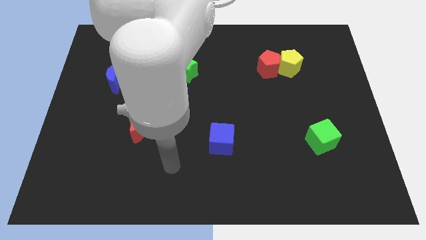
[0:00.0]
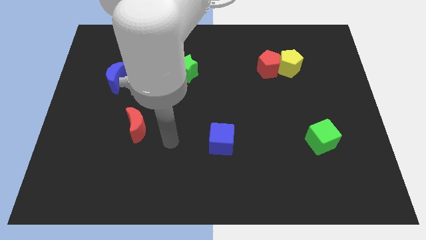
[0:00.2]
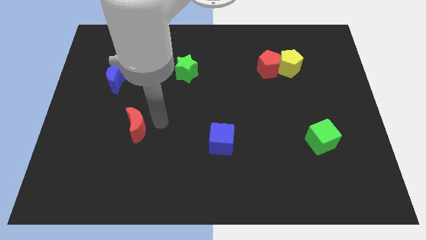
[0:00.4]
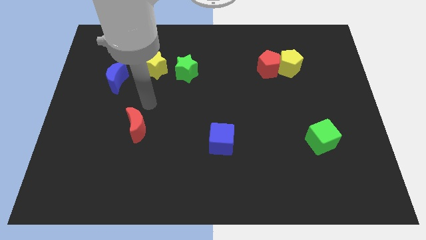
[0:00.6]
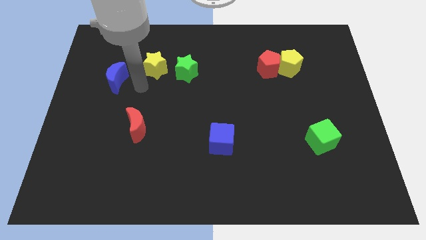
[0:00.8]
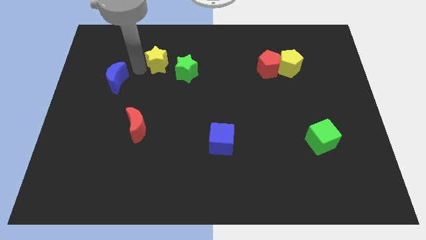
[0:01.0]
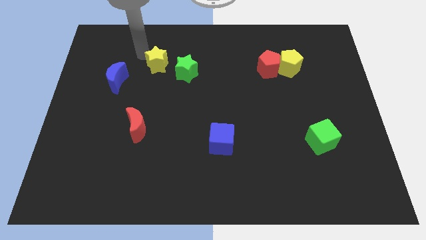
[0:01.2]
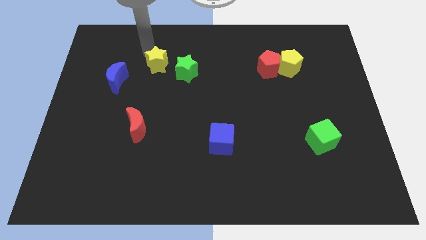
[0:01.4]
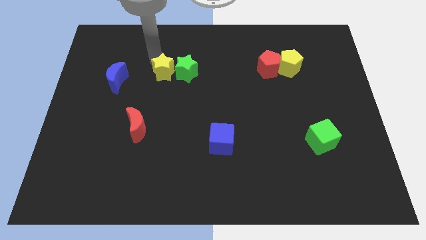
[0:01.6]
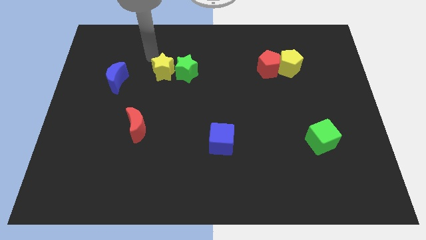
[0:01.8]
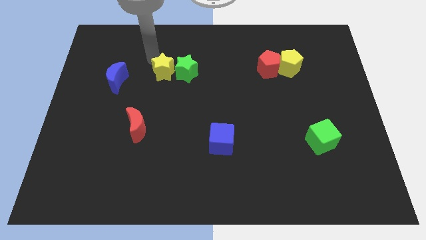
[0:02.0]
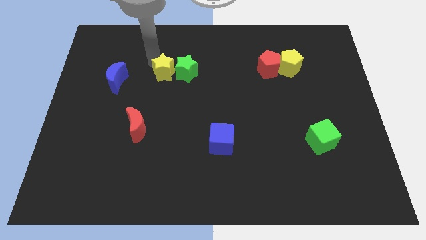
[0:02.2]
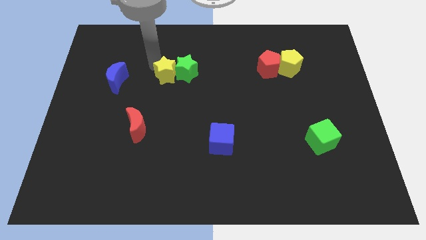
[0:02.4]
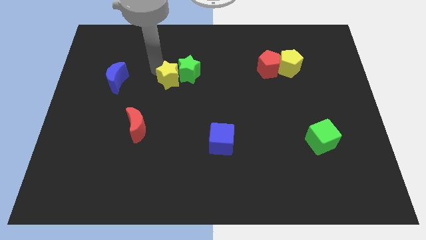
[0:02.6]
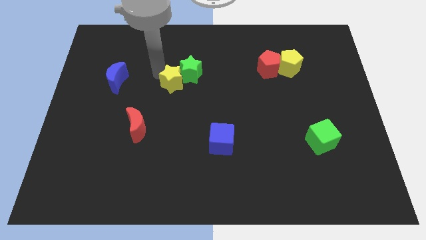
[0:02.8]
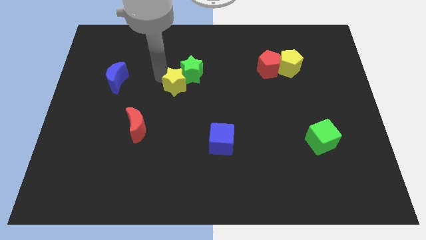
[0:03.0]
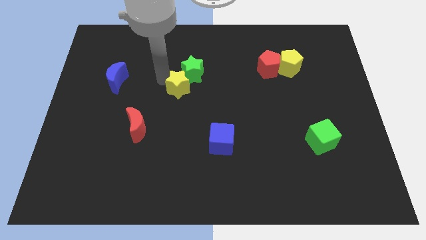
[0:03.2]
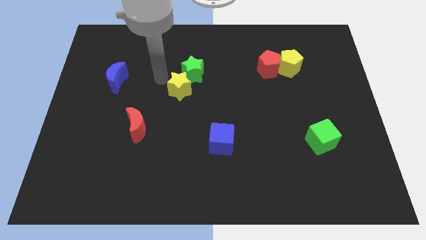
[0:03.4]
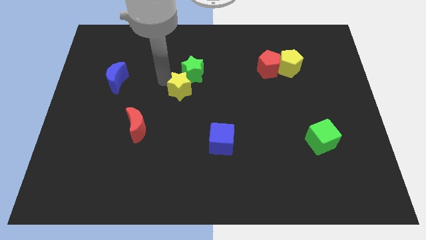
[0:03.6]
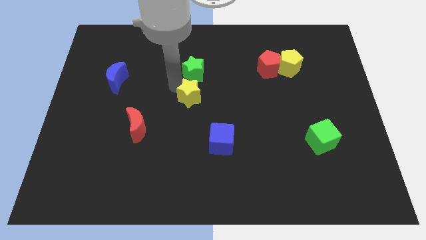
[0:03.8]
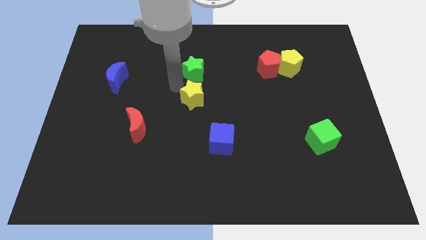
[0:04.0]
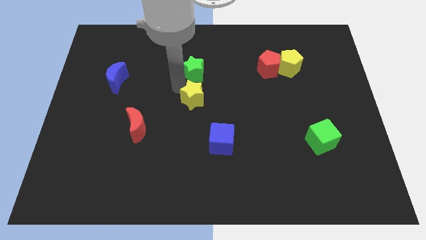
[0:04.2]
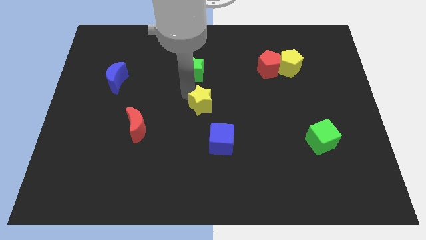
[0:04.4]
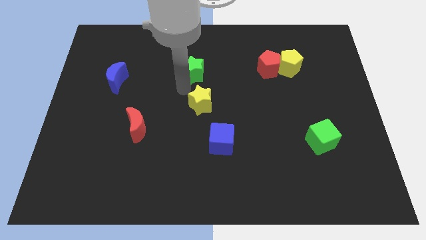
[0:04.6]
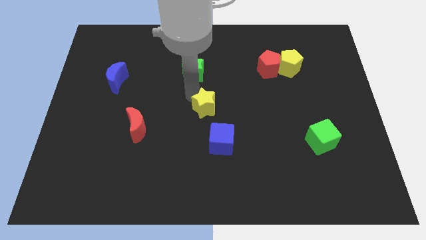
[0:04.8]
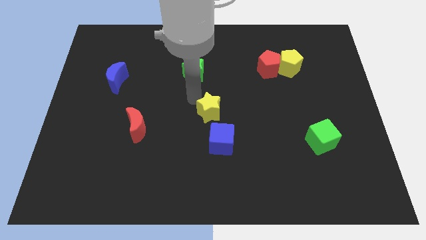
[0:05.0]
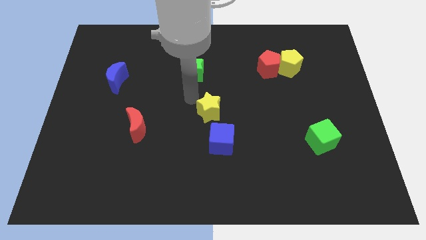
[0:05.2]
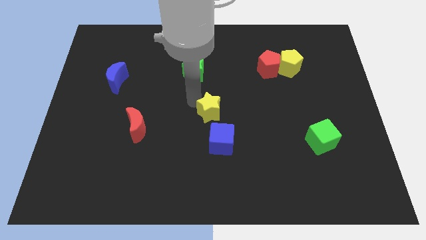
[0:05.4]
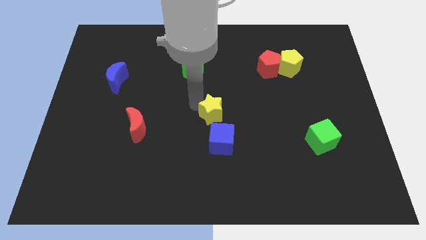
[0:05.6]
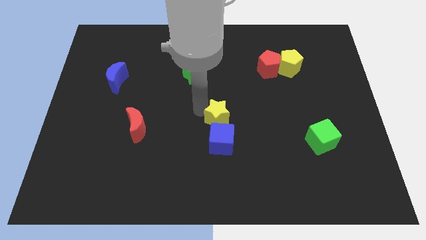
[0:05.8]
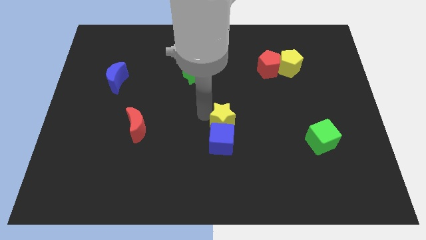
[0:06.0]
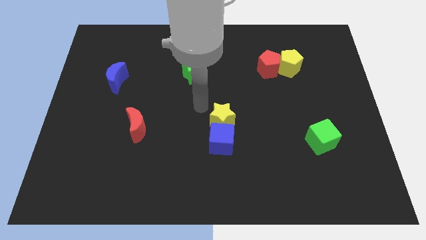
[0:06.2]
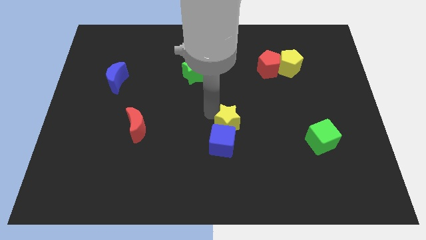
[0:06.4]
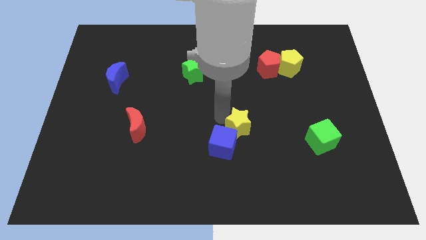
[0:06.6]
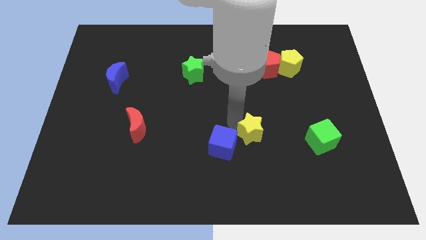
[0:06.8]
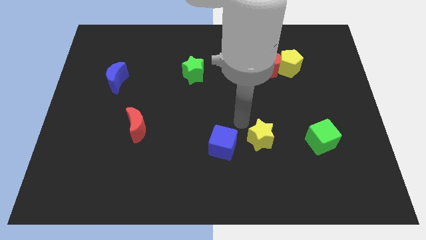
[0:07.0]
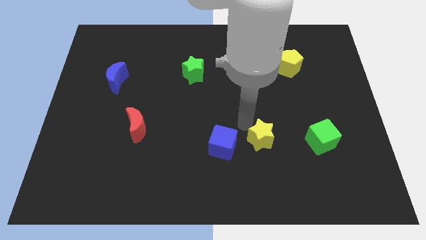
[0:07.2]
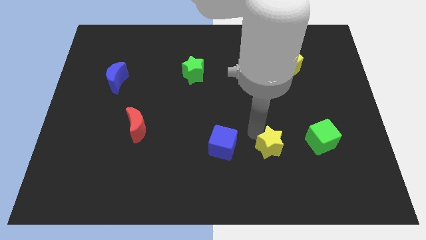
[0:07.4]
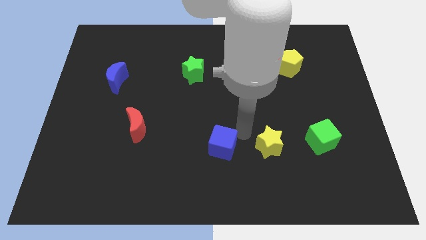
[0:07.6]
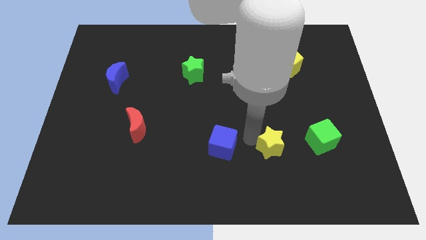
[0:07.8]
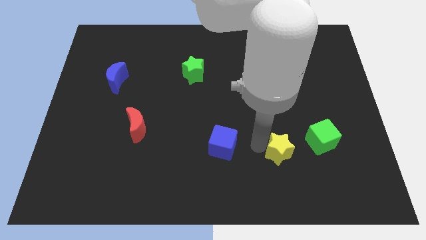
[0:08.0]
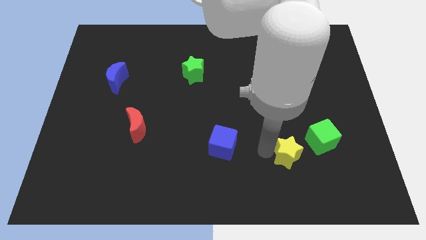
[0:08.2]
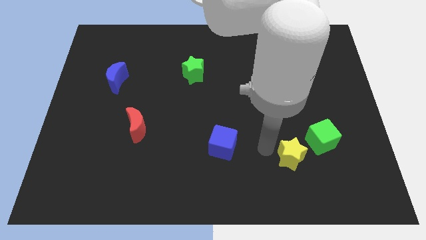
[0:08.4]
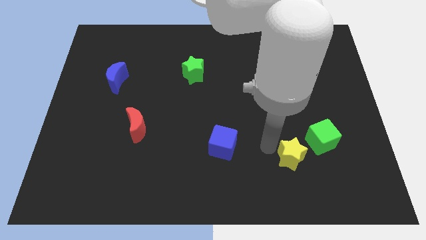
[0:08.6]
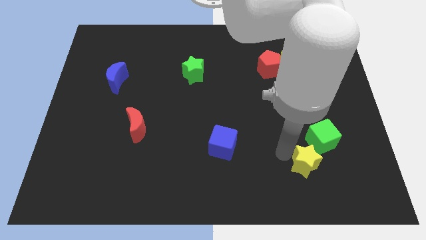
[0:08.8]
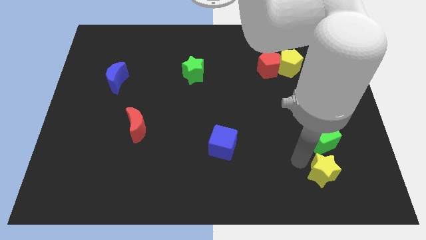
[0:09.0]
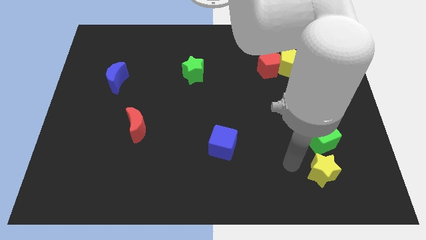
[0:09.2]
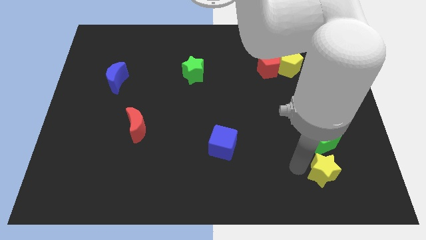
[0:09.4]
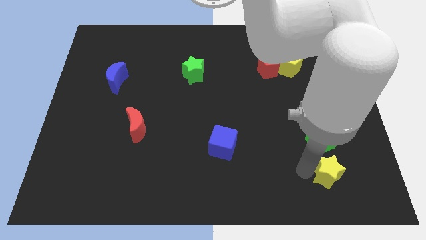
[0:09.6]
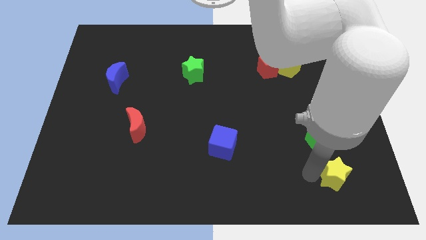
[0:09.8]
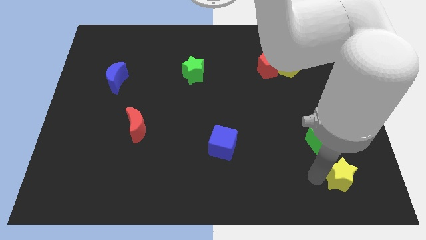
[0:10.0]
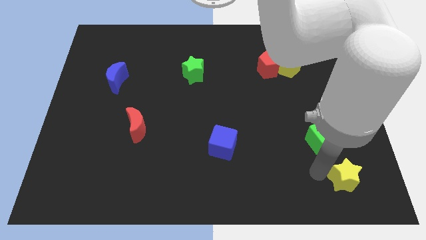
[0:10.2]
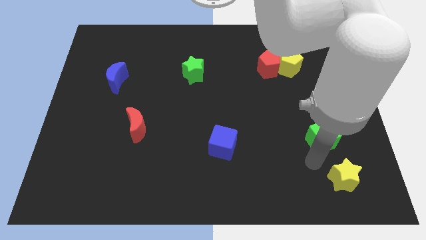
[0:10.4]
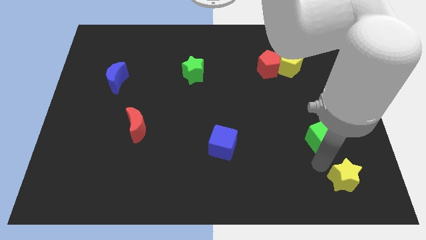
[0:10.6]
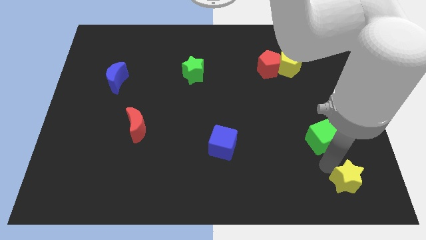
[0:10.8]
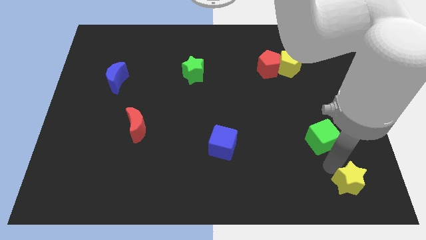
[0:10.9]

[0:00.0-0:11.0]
slide the yellow star to the bottom right corner

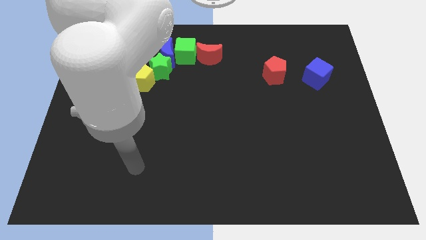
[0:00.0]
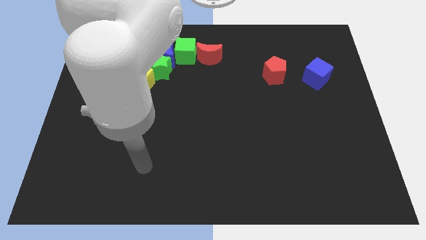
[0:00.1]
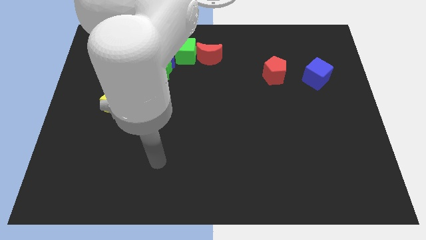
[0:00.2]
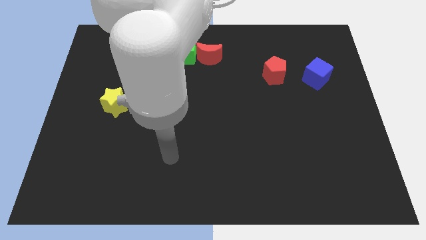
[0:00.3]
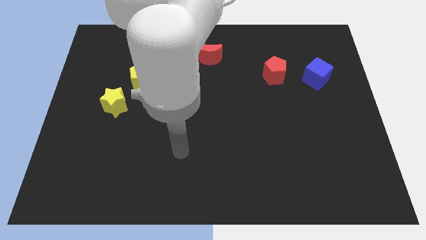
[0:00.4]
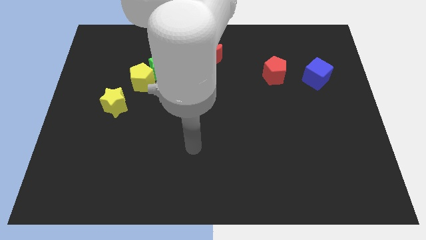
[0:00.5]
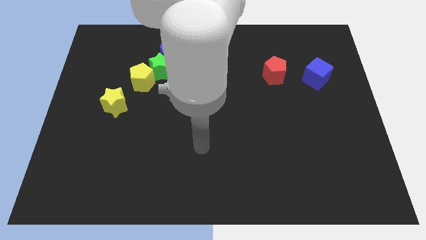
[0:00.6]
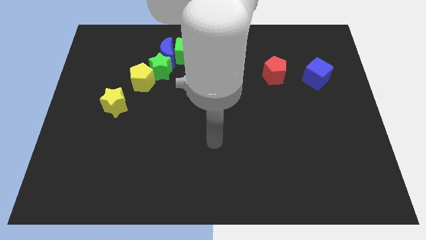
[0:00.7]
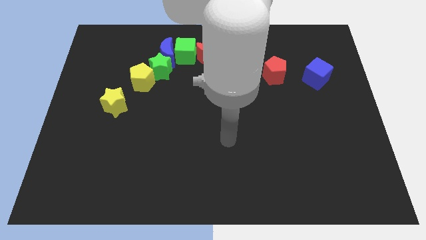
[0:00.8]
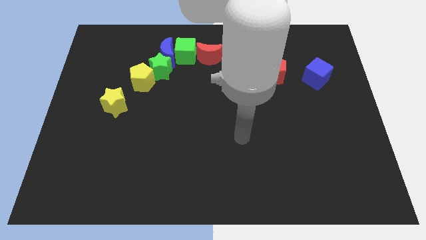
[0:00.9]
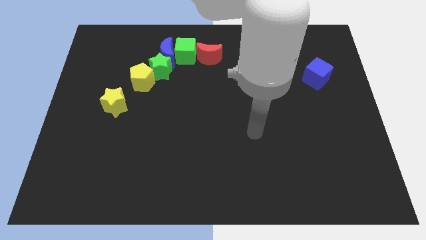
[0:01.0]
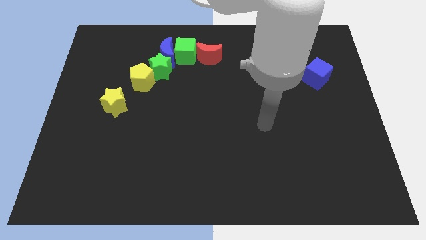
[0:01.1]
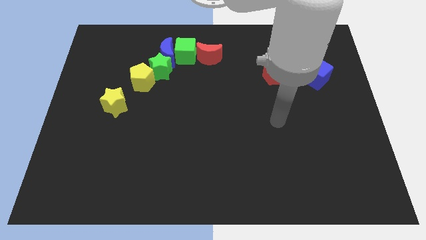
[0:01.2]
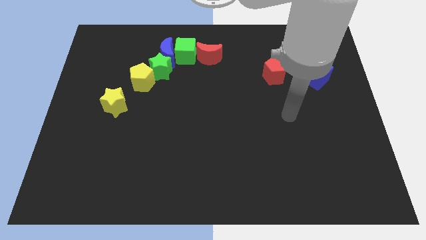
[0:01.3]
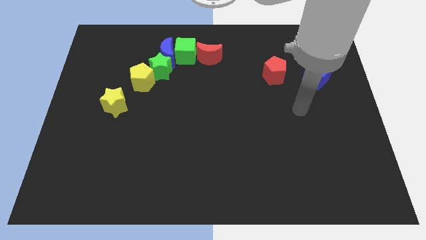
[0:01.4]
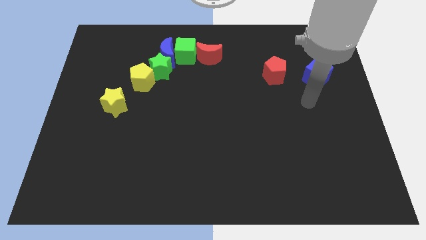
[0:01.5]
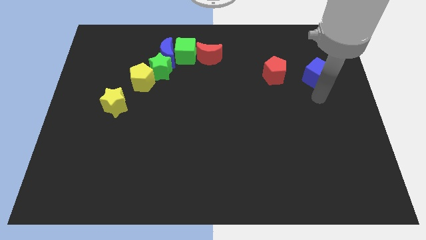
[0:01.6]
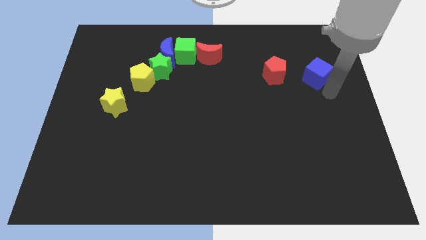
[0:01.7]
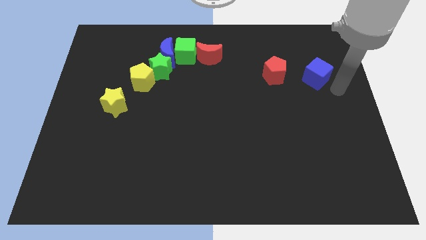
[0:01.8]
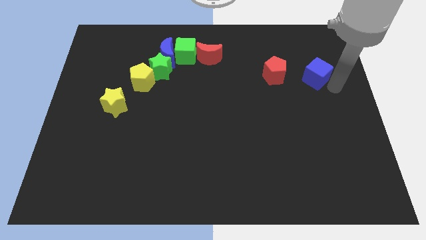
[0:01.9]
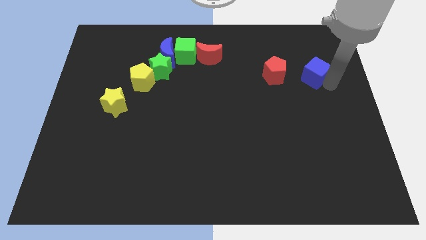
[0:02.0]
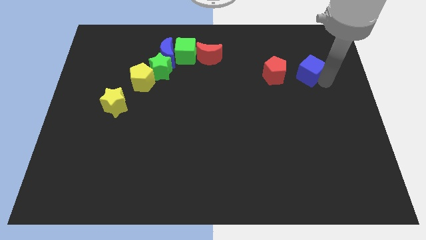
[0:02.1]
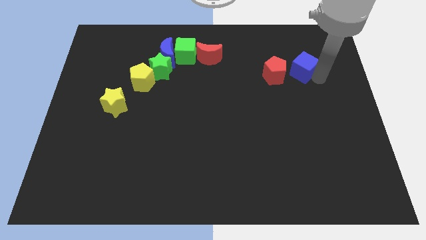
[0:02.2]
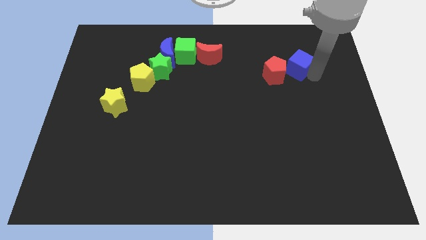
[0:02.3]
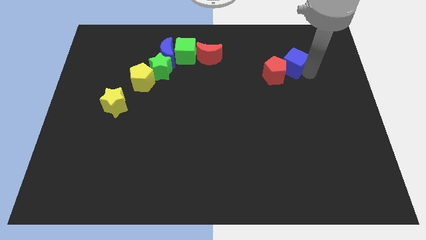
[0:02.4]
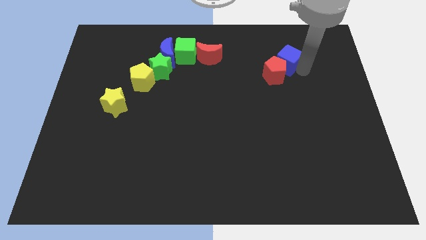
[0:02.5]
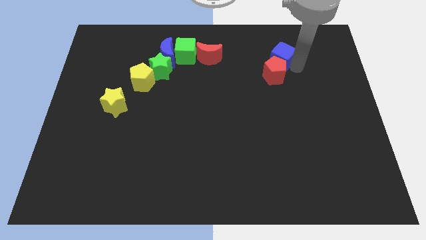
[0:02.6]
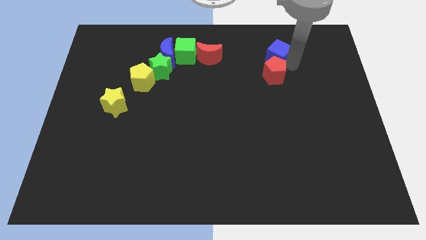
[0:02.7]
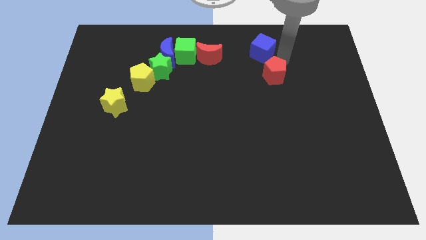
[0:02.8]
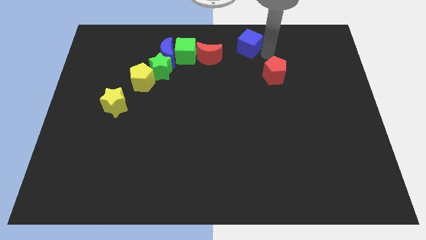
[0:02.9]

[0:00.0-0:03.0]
move the blue cube to the top
